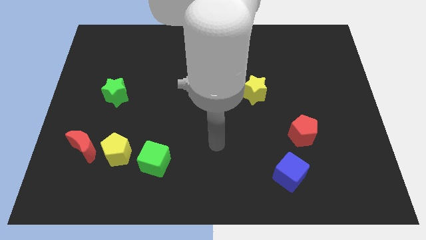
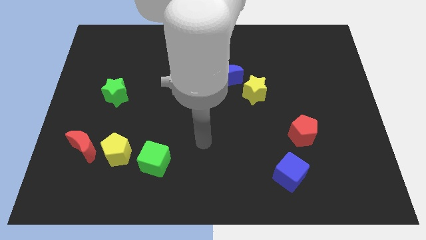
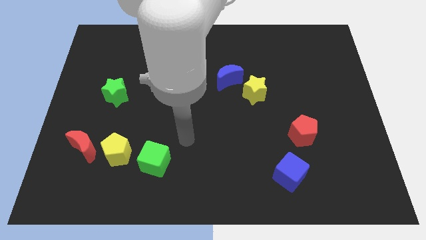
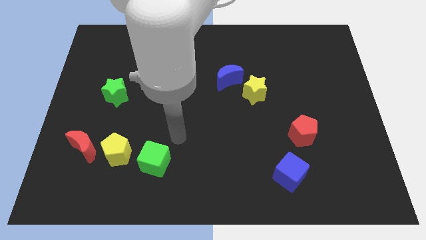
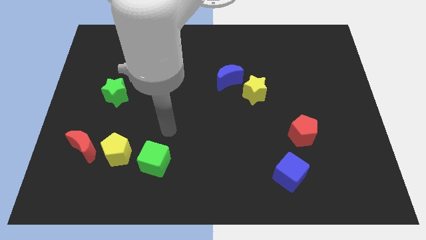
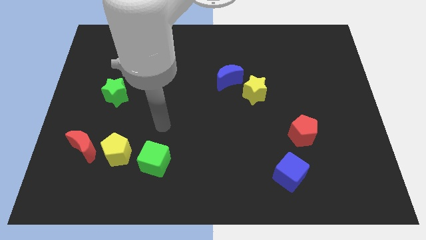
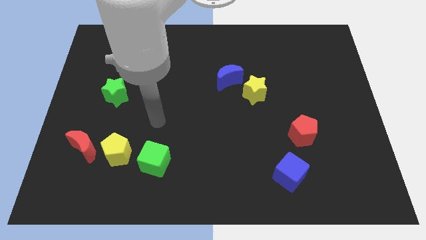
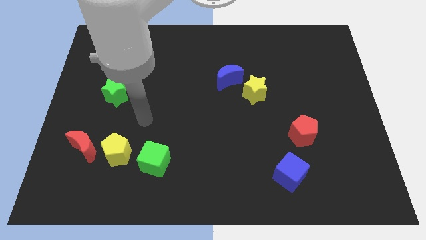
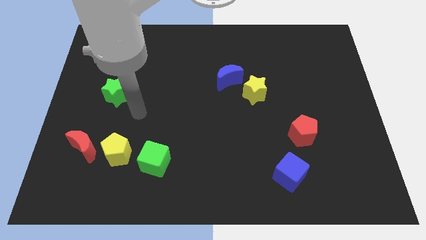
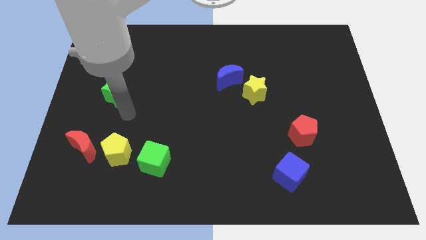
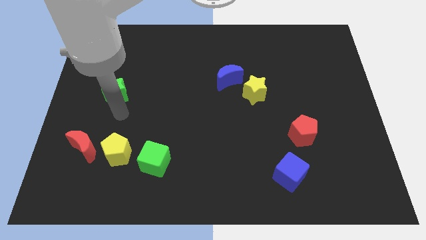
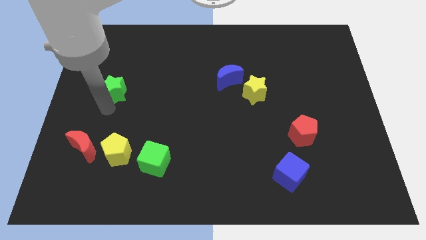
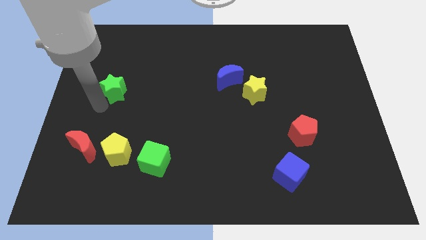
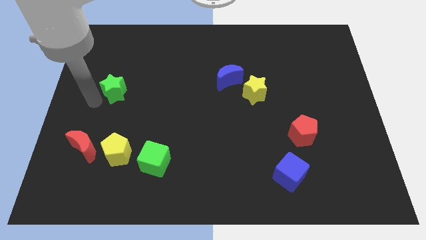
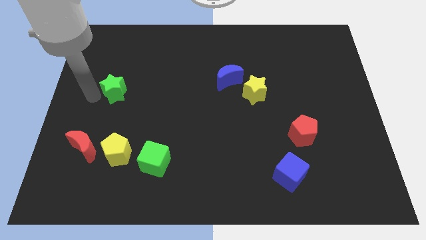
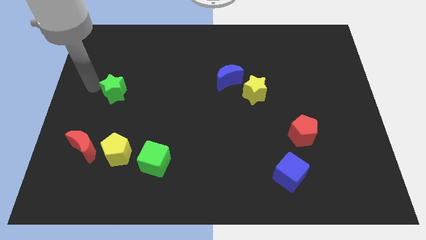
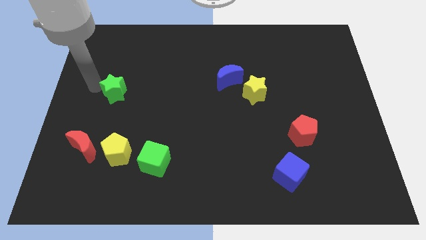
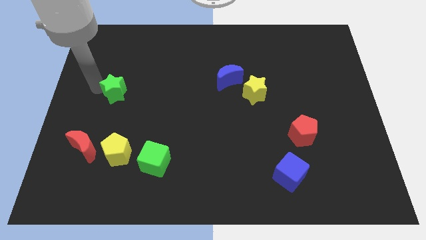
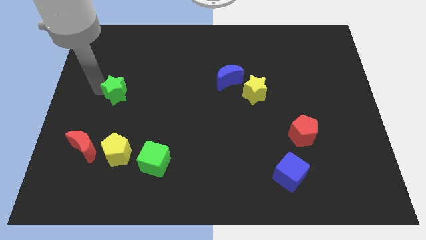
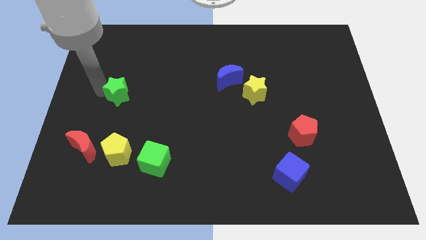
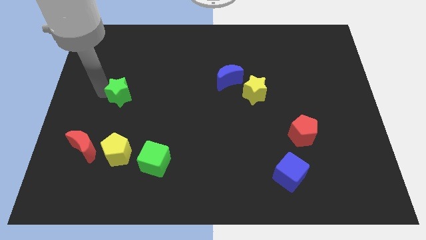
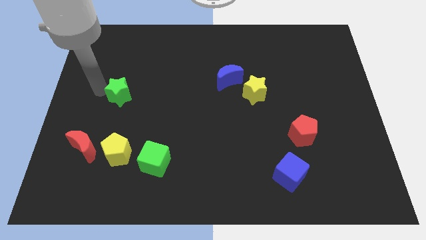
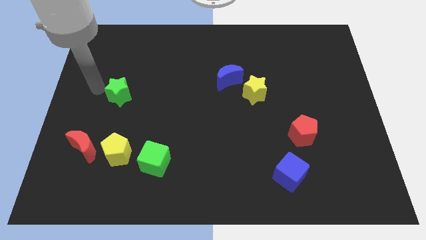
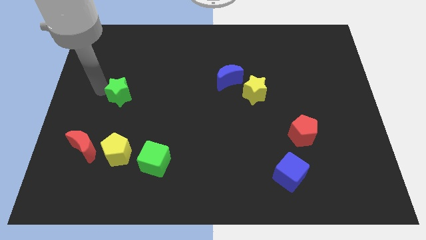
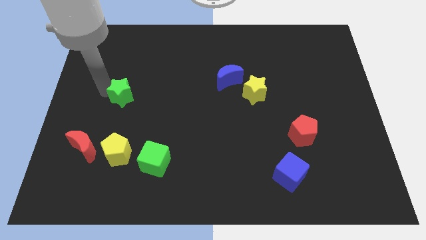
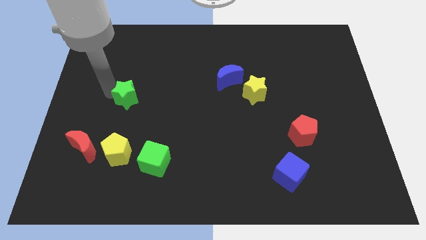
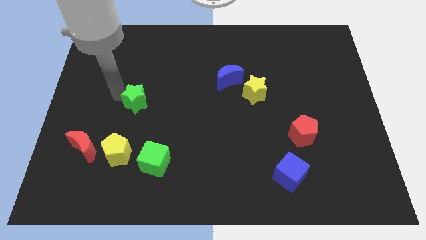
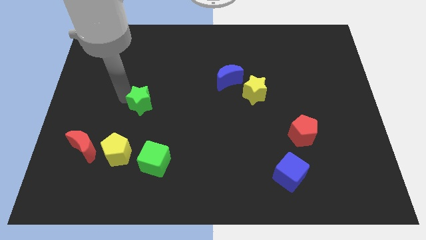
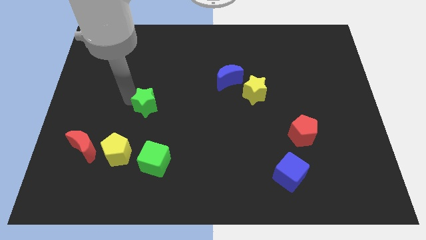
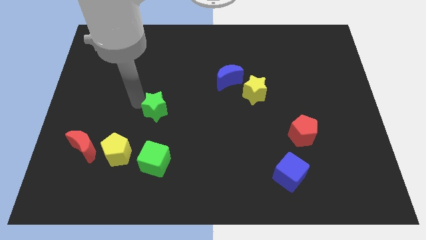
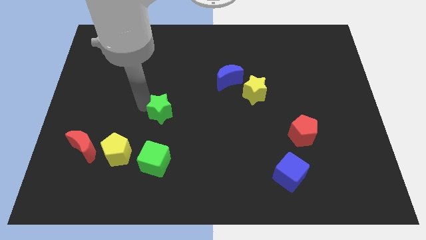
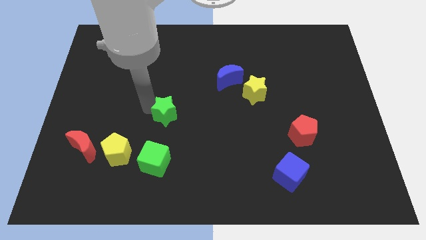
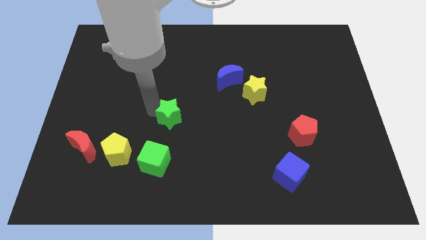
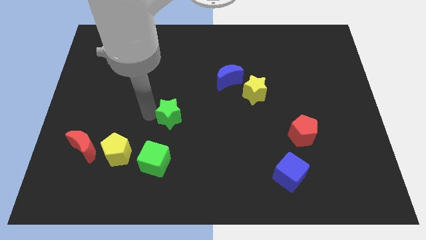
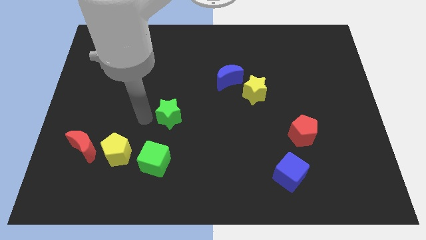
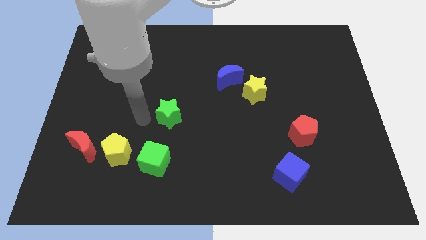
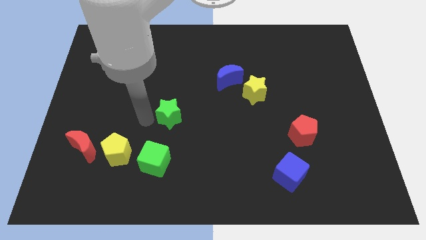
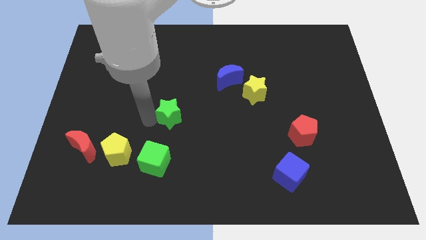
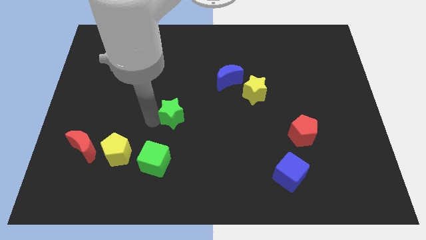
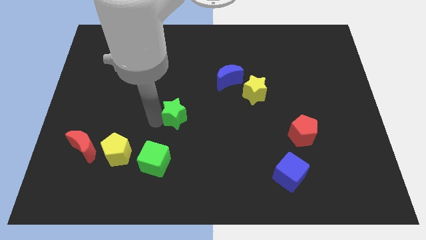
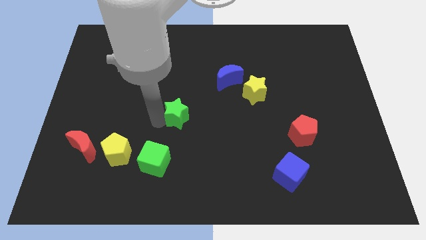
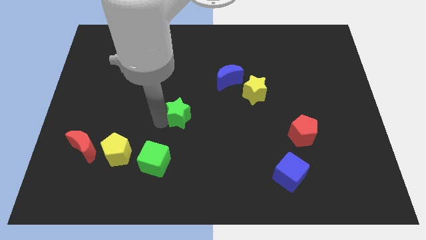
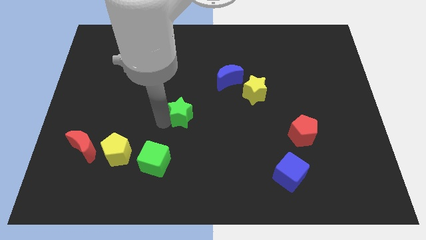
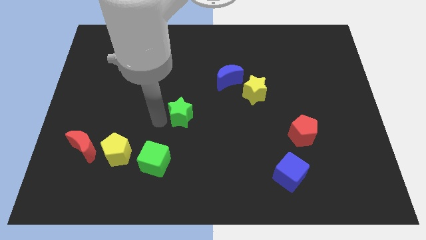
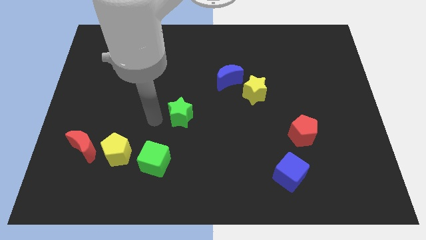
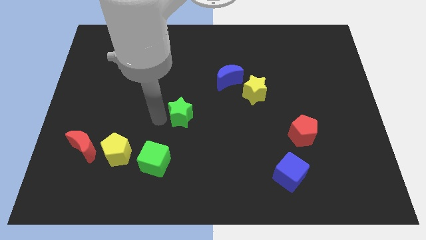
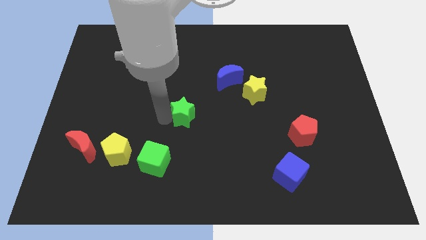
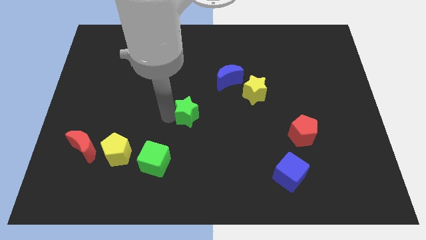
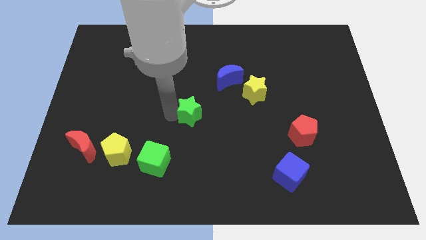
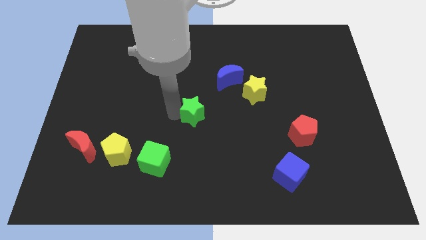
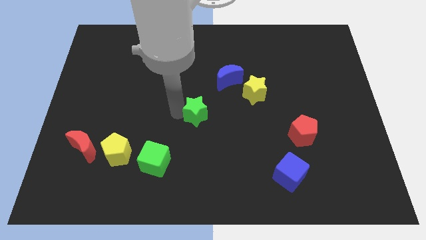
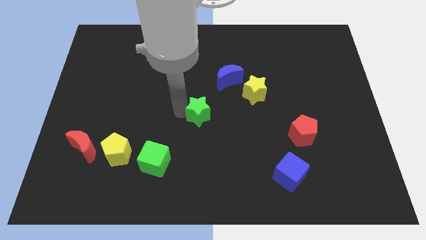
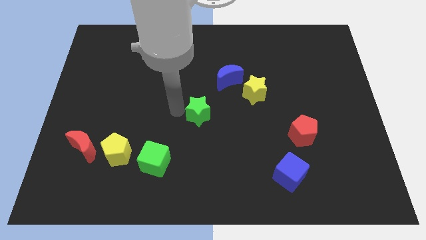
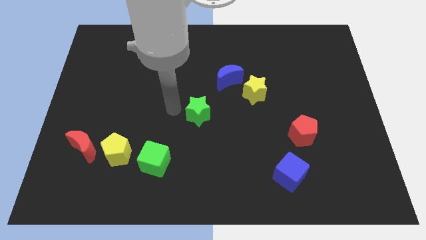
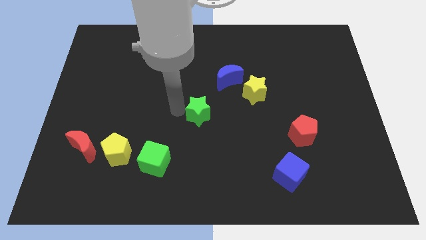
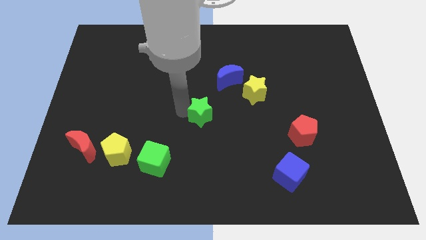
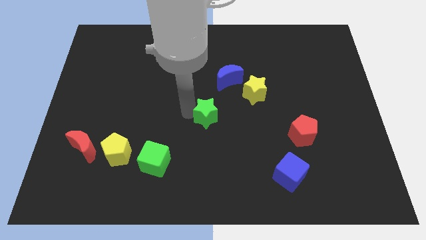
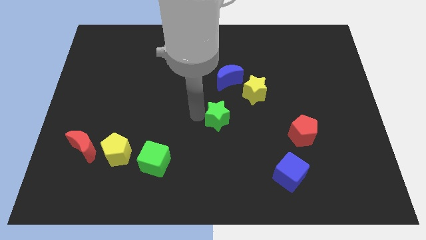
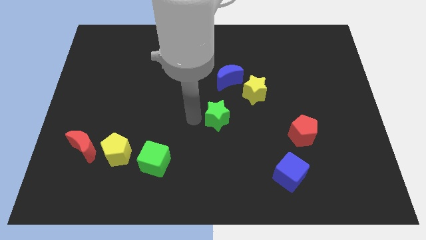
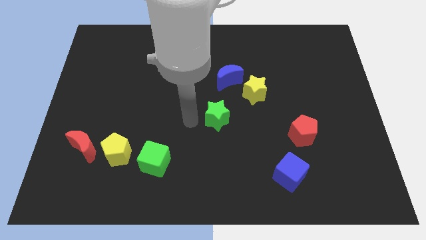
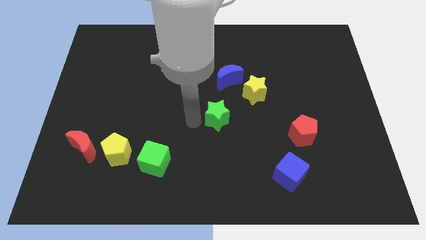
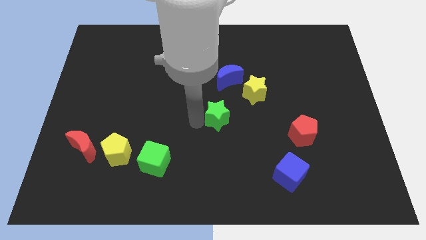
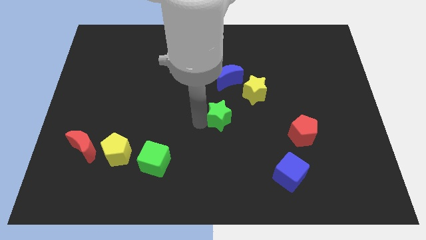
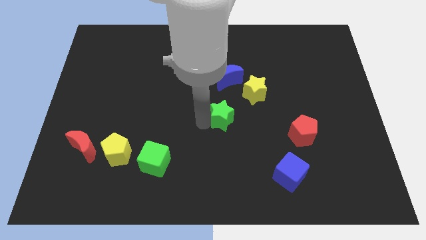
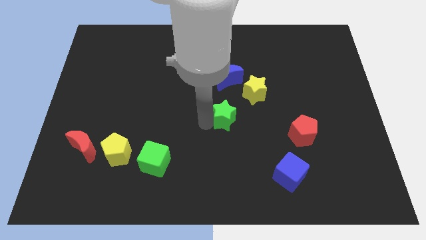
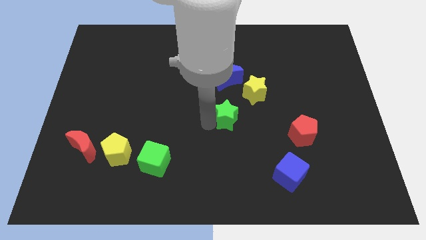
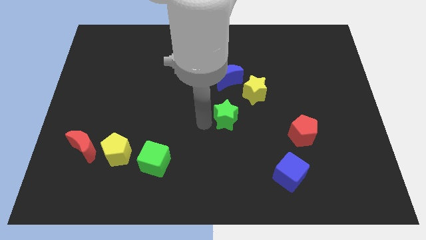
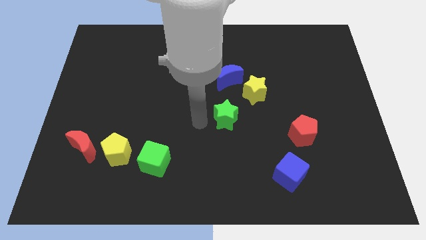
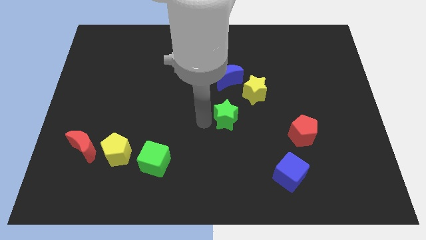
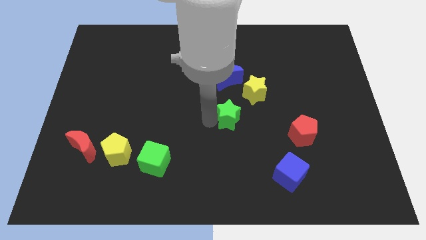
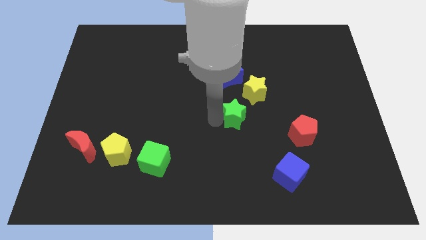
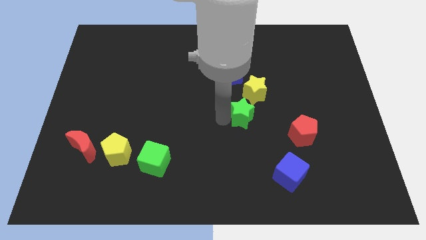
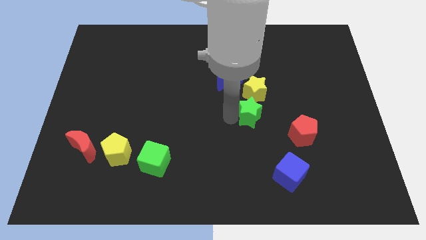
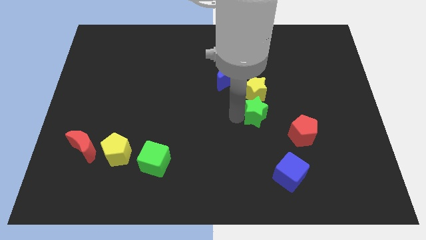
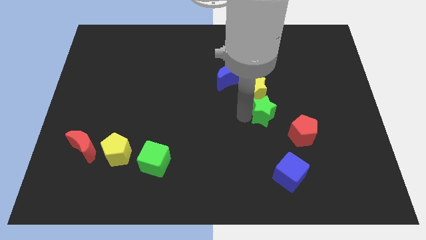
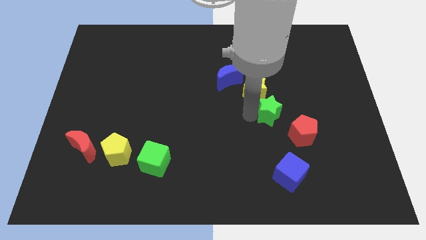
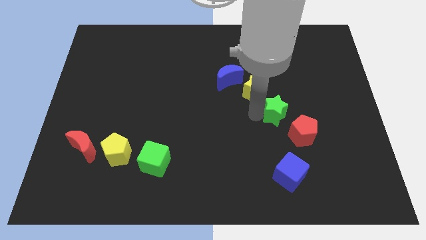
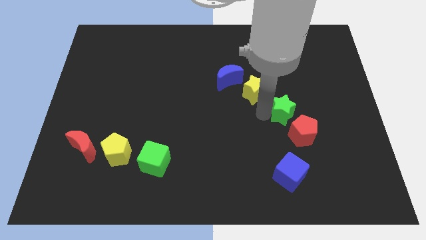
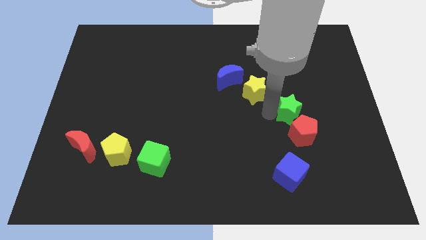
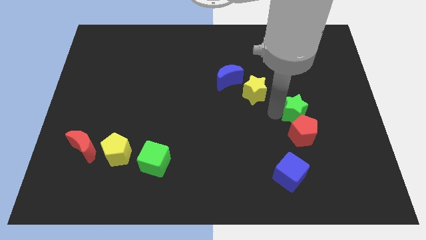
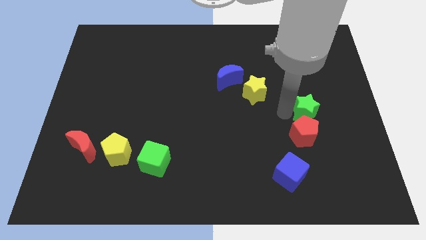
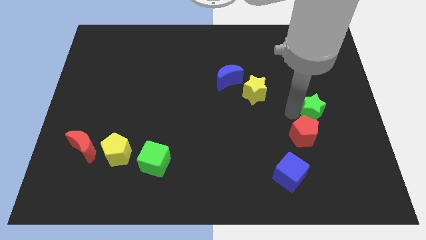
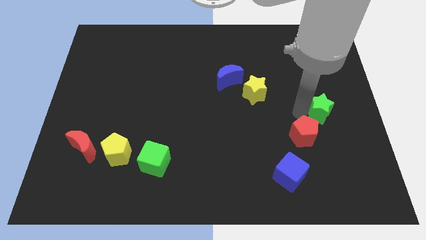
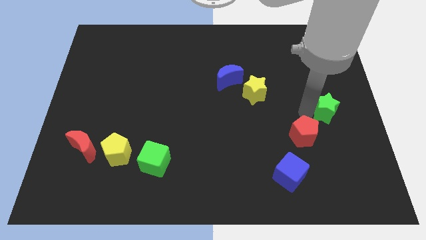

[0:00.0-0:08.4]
slide the green star to the right side
